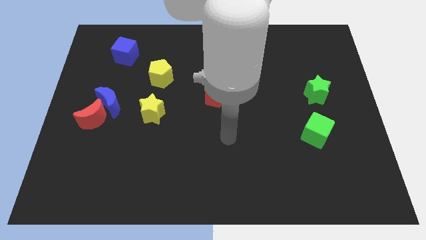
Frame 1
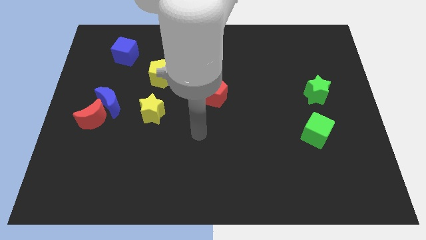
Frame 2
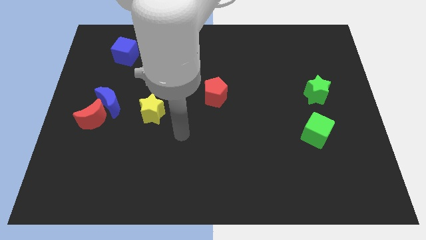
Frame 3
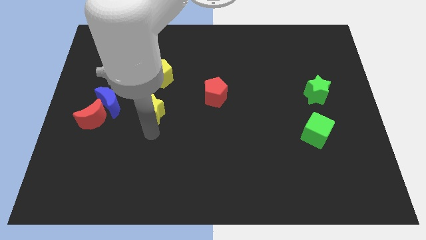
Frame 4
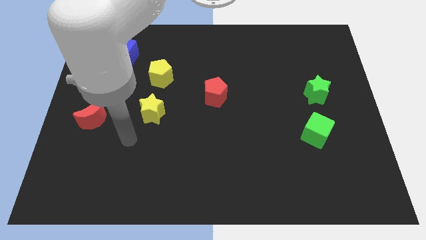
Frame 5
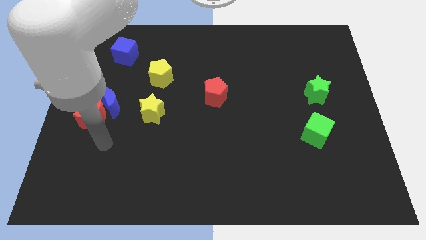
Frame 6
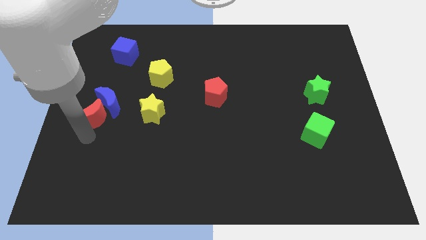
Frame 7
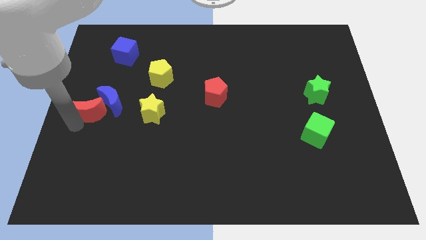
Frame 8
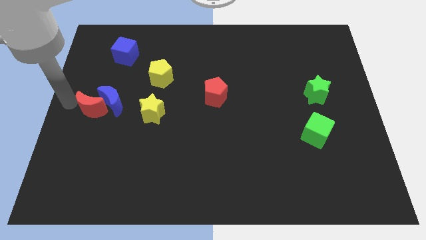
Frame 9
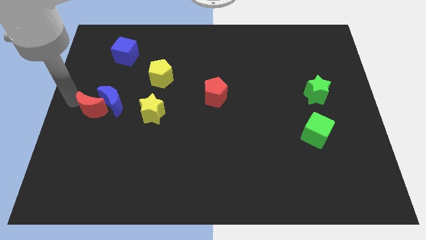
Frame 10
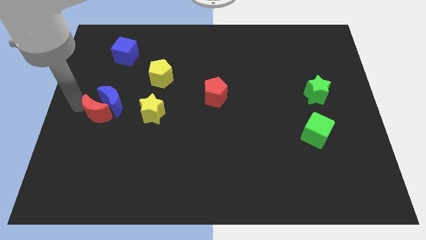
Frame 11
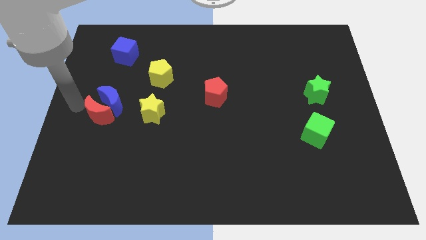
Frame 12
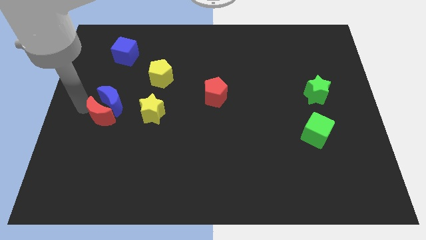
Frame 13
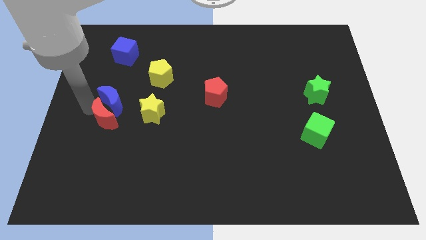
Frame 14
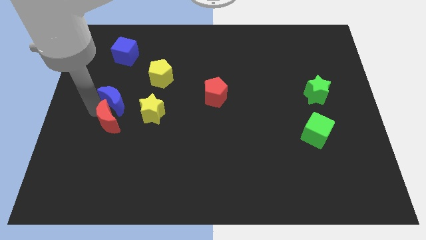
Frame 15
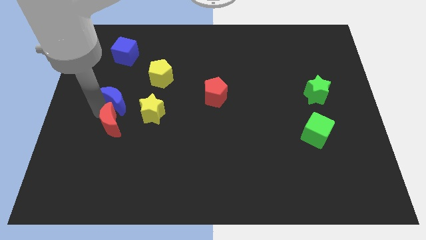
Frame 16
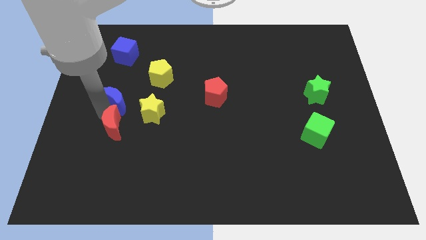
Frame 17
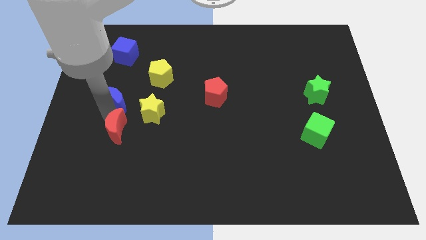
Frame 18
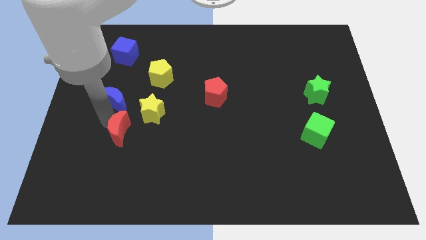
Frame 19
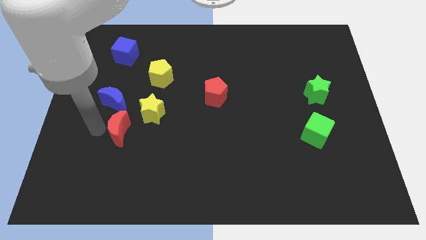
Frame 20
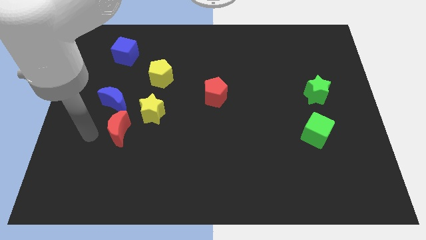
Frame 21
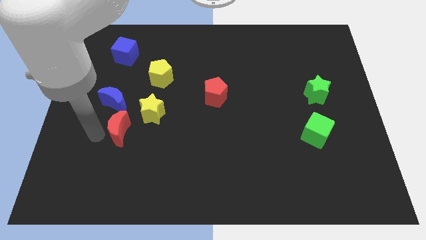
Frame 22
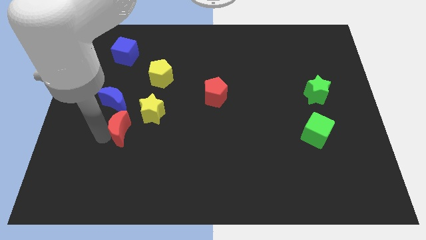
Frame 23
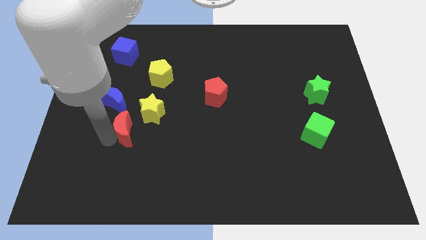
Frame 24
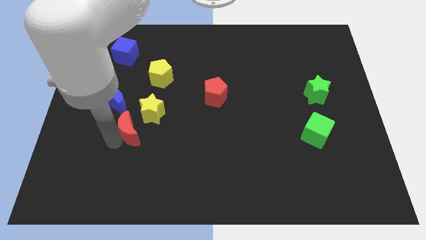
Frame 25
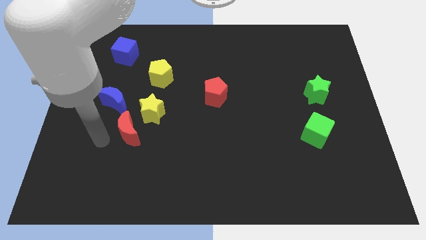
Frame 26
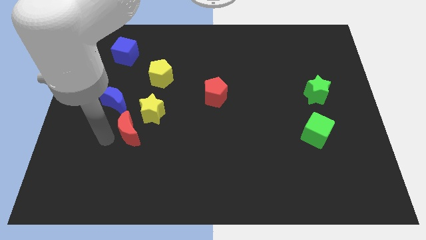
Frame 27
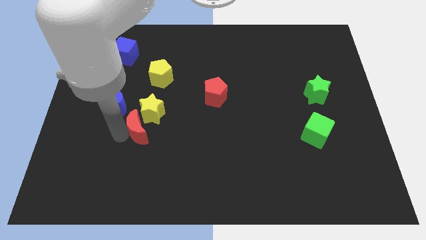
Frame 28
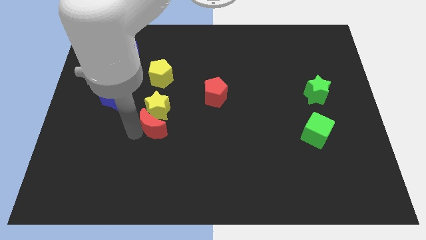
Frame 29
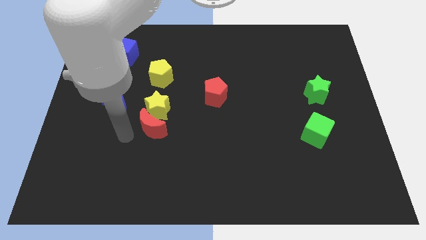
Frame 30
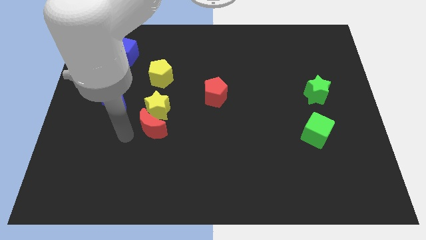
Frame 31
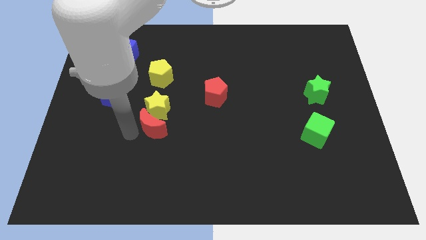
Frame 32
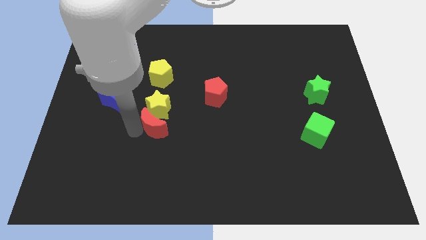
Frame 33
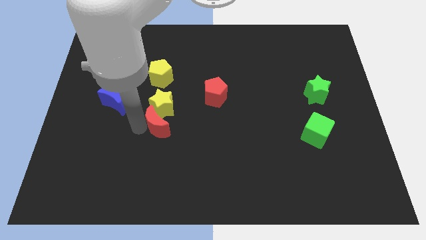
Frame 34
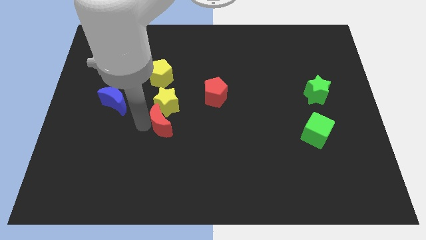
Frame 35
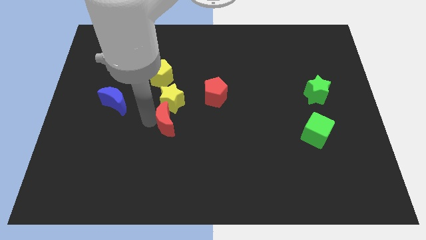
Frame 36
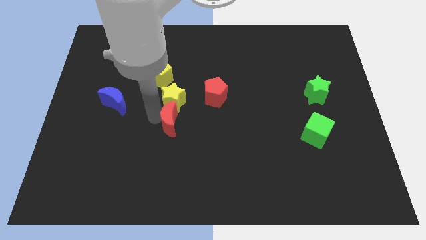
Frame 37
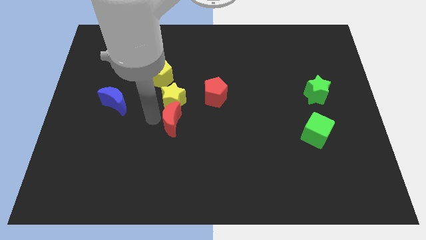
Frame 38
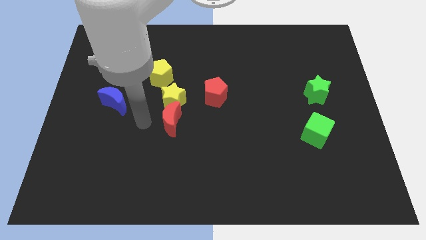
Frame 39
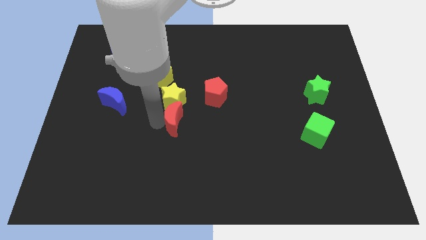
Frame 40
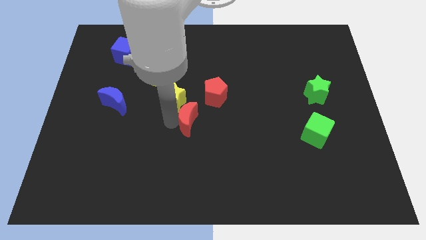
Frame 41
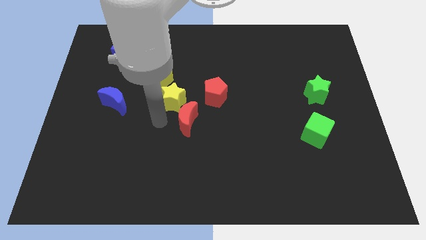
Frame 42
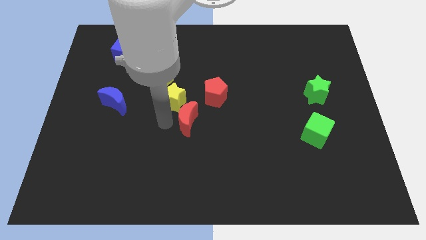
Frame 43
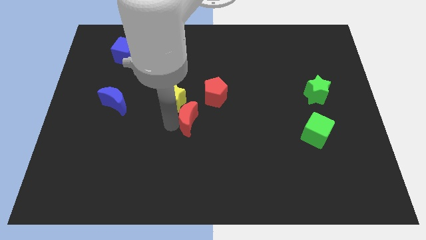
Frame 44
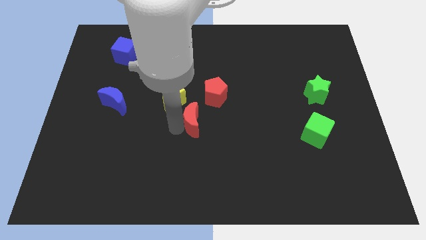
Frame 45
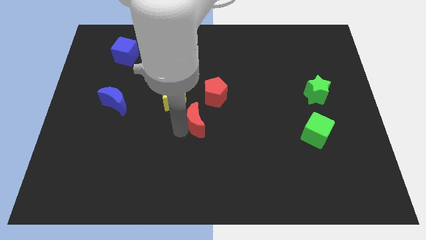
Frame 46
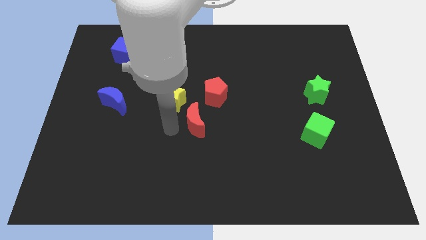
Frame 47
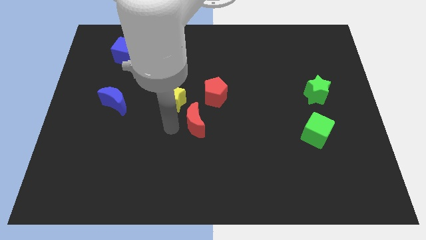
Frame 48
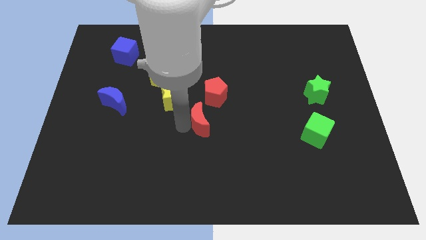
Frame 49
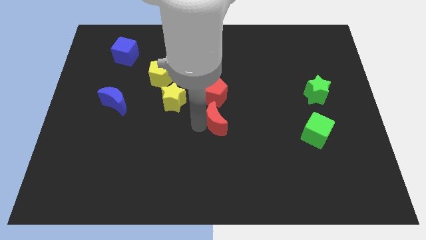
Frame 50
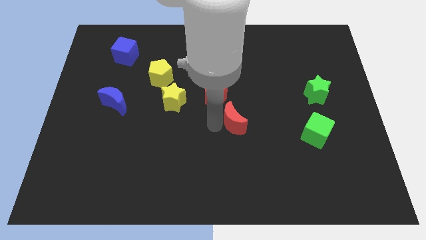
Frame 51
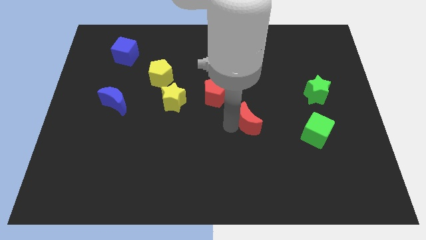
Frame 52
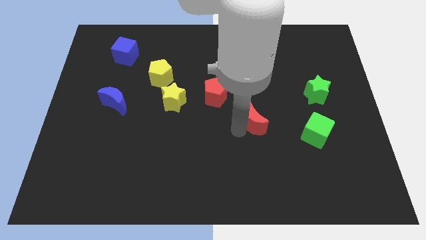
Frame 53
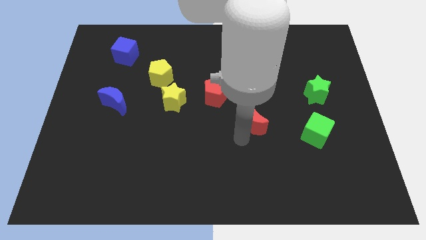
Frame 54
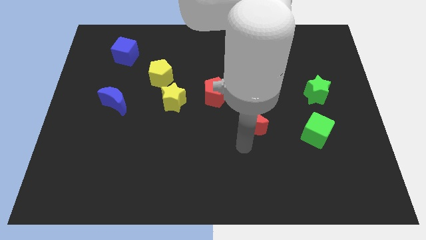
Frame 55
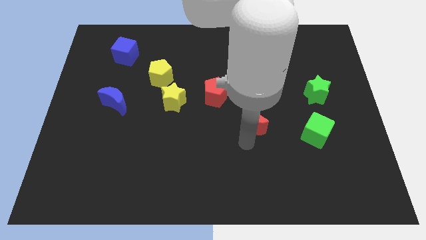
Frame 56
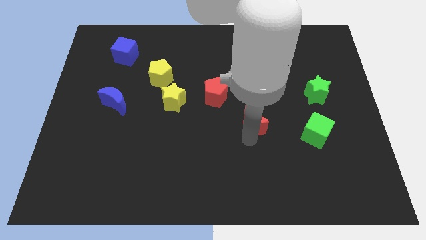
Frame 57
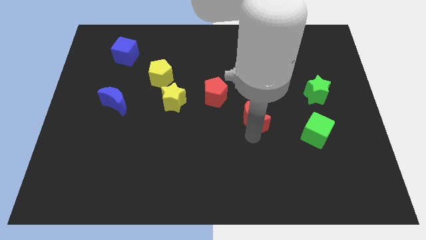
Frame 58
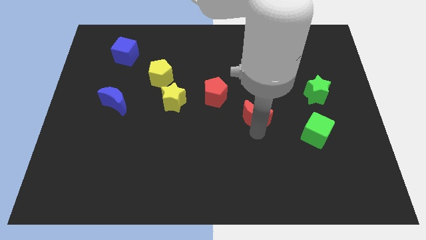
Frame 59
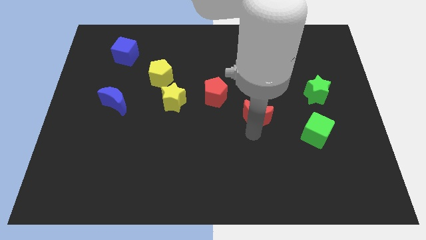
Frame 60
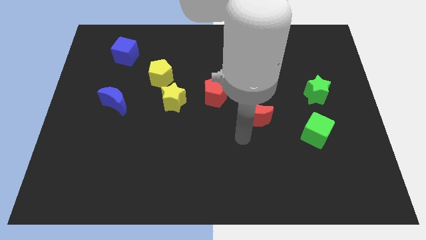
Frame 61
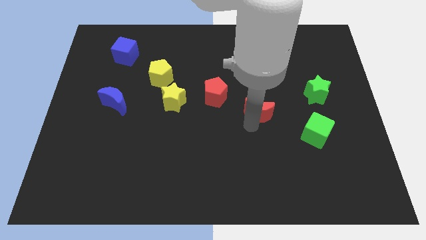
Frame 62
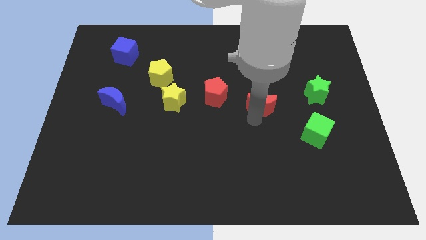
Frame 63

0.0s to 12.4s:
put the red moon left of the green star

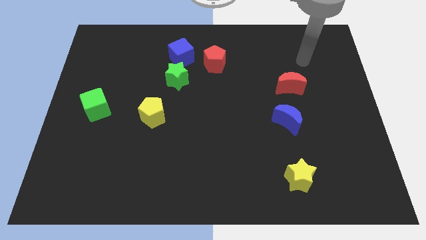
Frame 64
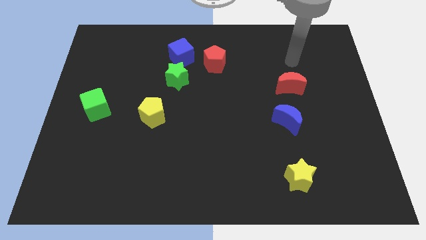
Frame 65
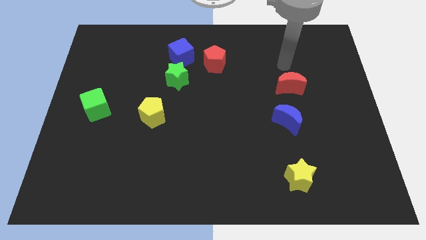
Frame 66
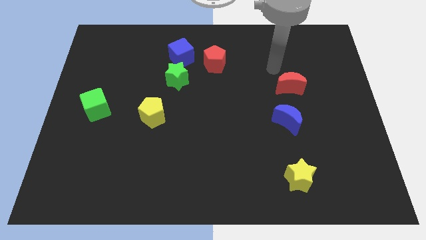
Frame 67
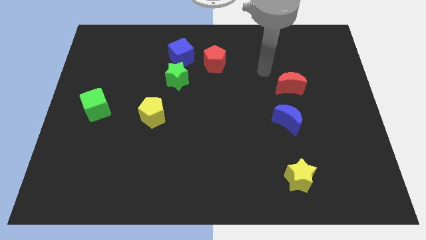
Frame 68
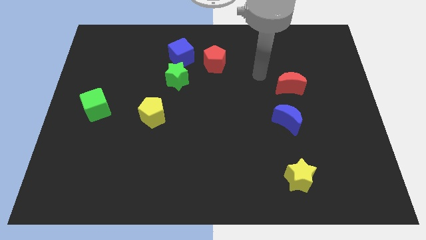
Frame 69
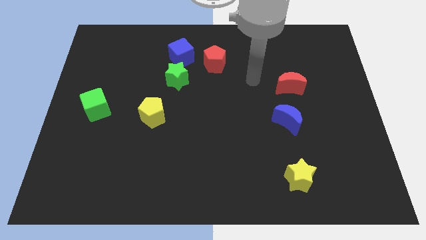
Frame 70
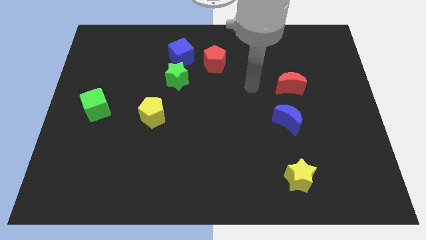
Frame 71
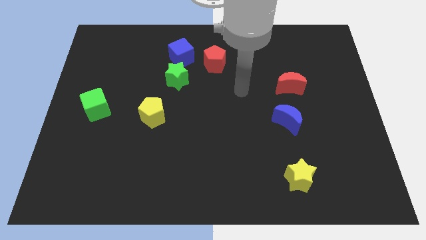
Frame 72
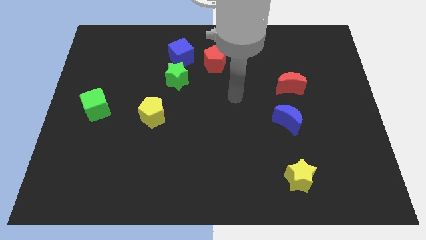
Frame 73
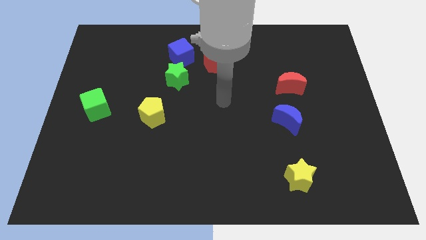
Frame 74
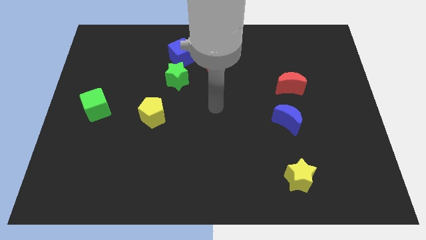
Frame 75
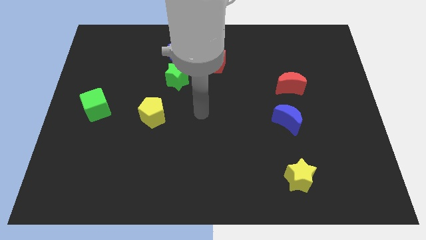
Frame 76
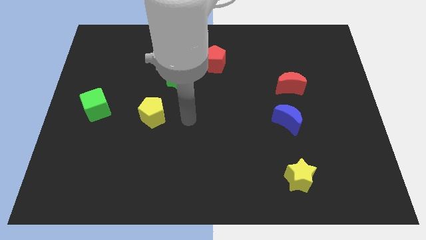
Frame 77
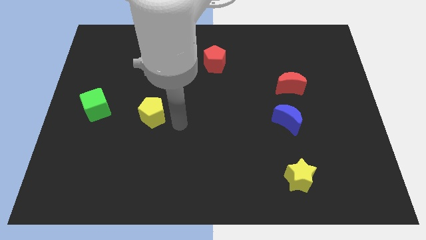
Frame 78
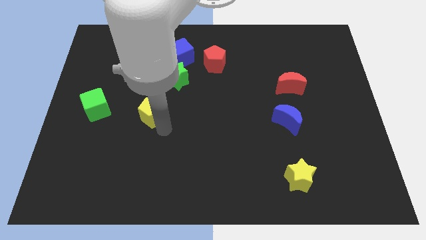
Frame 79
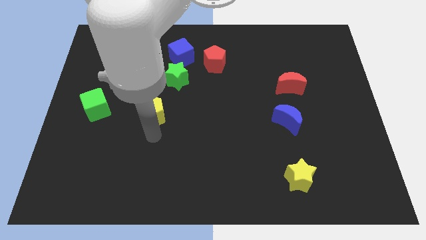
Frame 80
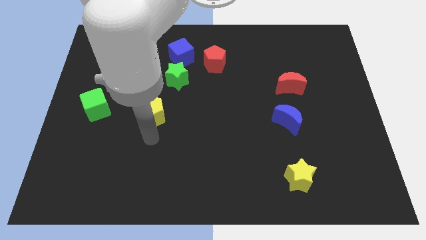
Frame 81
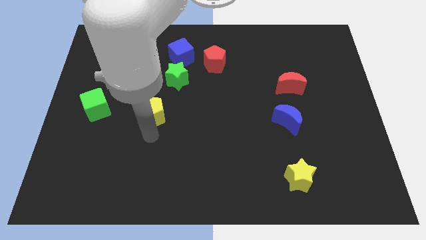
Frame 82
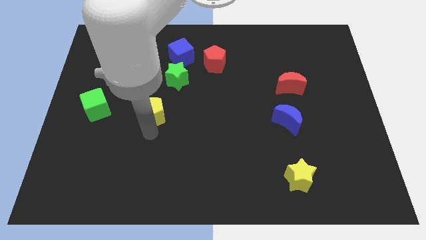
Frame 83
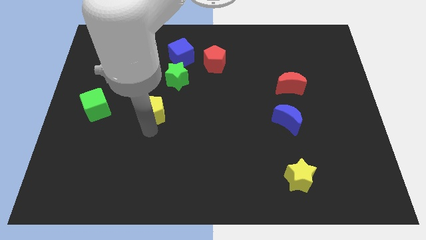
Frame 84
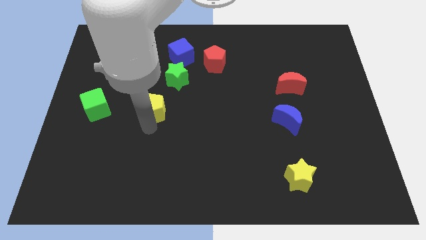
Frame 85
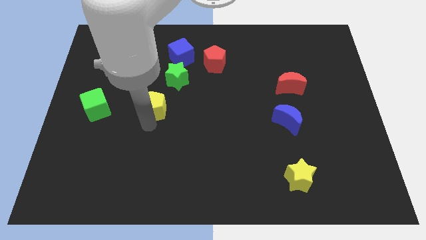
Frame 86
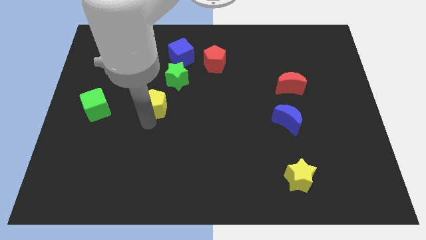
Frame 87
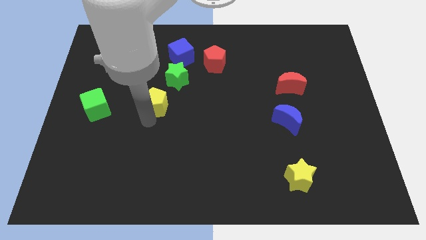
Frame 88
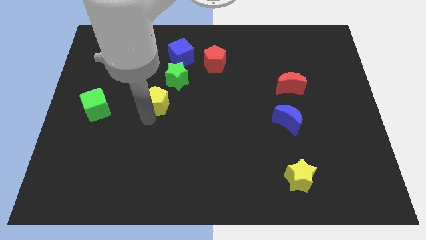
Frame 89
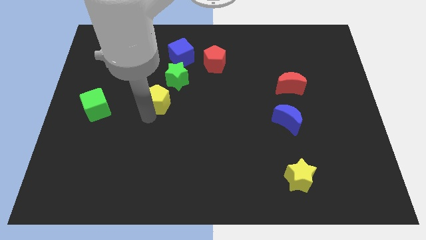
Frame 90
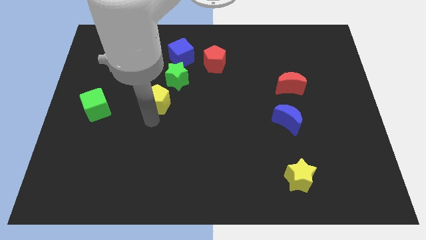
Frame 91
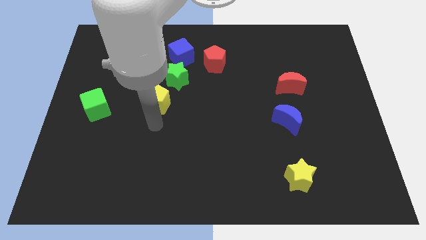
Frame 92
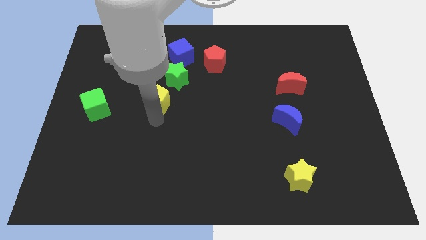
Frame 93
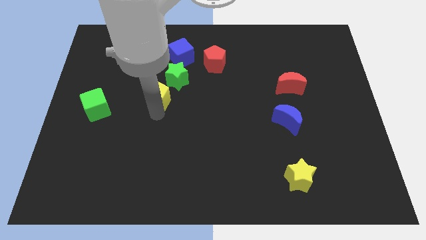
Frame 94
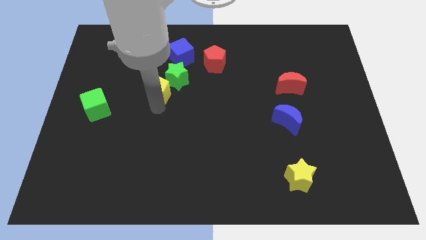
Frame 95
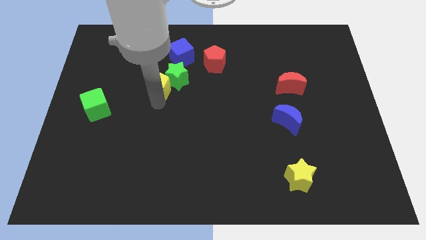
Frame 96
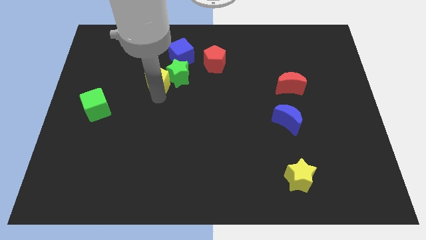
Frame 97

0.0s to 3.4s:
put the yellow pentagon to the bottom left side of the blue cube
